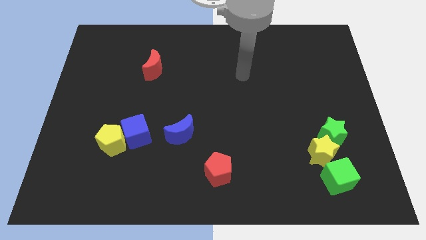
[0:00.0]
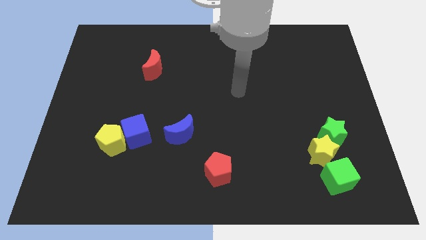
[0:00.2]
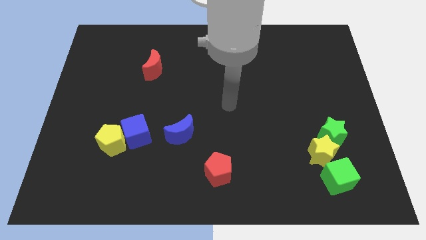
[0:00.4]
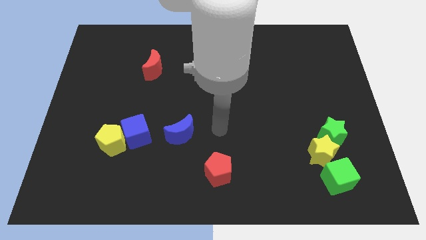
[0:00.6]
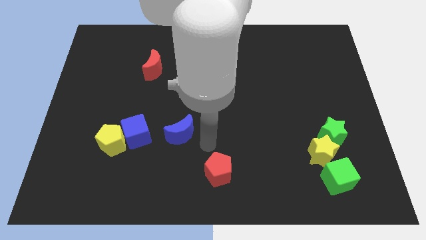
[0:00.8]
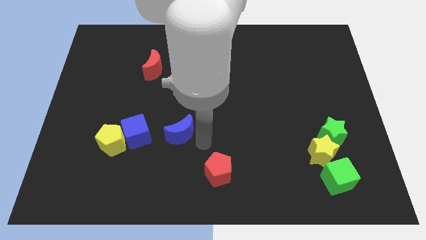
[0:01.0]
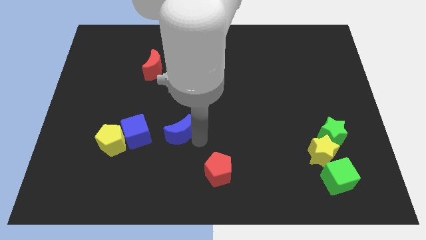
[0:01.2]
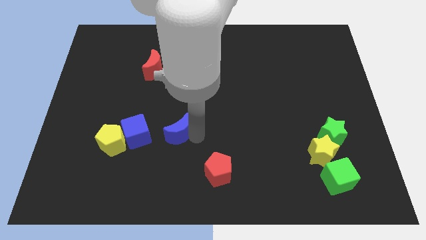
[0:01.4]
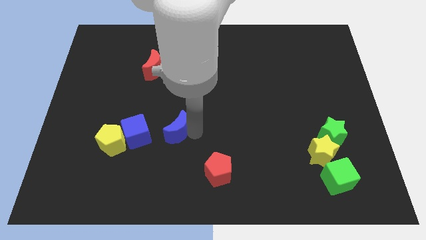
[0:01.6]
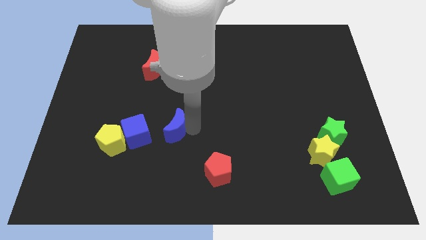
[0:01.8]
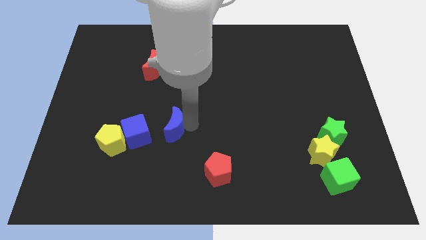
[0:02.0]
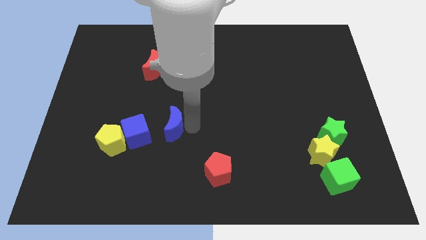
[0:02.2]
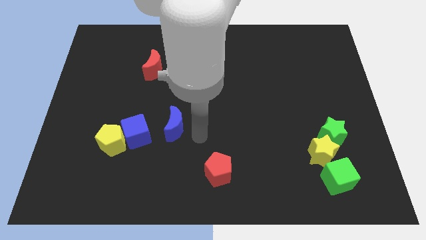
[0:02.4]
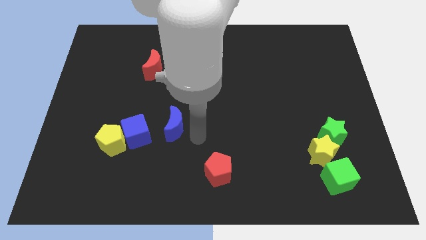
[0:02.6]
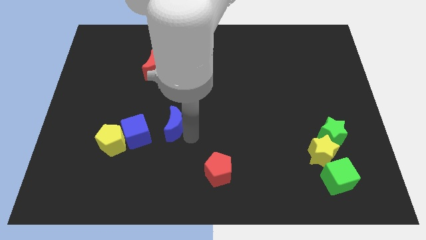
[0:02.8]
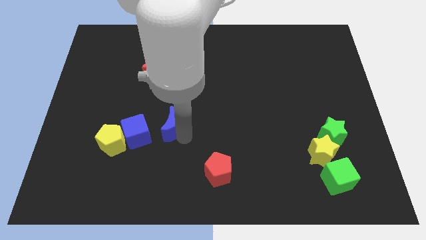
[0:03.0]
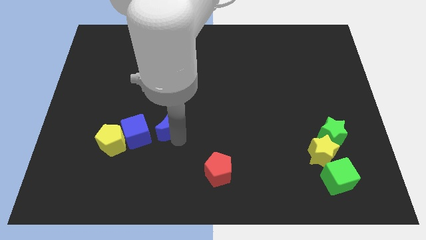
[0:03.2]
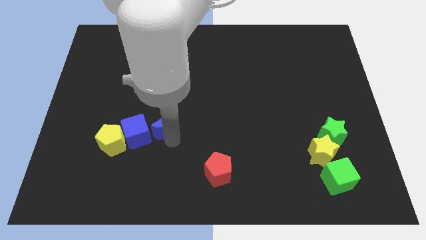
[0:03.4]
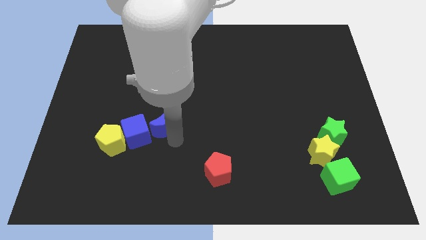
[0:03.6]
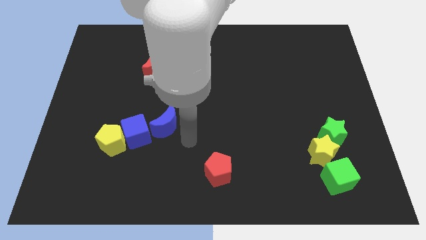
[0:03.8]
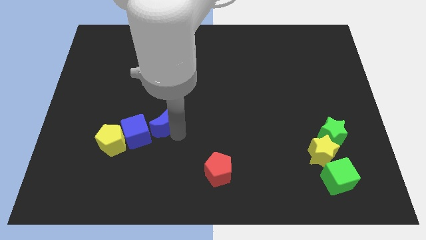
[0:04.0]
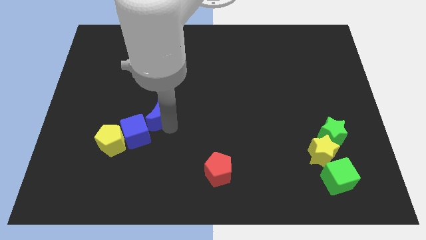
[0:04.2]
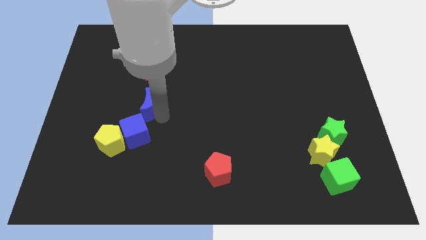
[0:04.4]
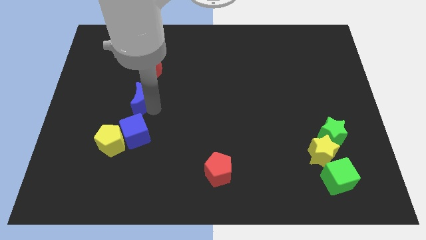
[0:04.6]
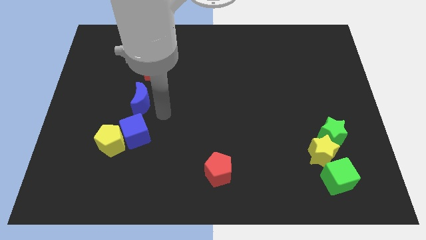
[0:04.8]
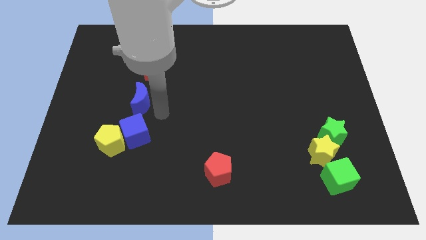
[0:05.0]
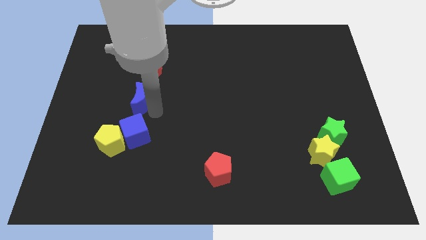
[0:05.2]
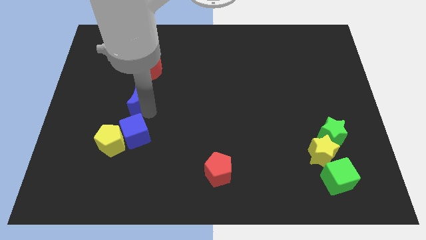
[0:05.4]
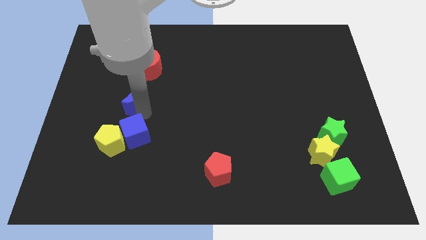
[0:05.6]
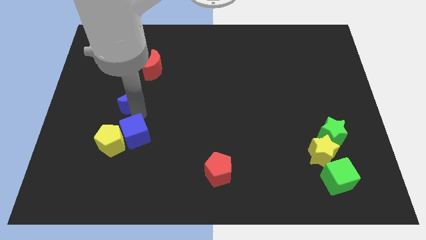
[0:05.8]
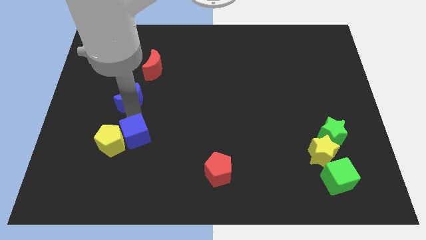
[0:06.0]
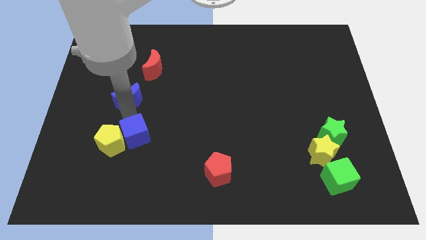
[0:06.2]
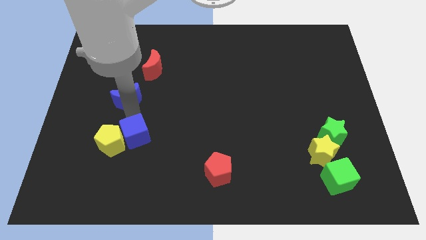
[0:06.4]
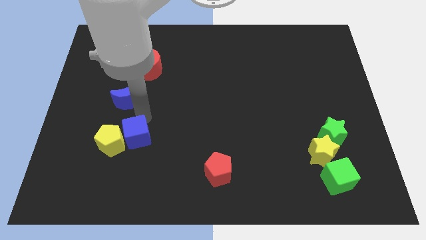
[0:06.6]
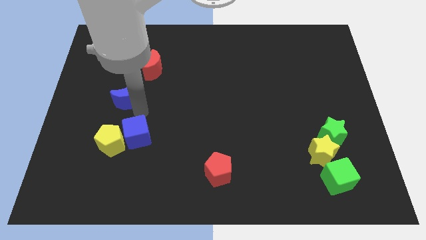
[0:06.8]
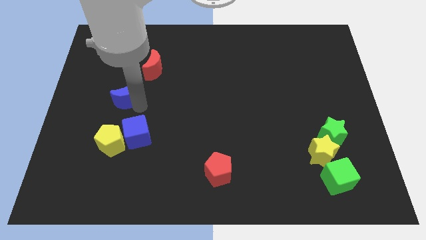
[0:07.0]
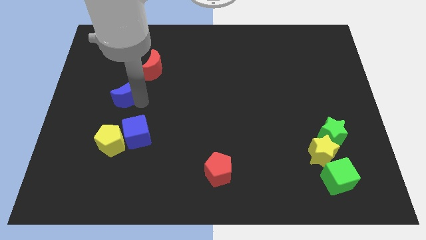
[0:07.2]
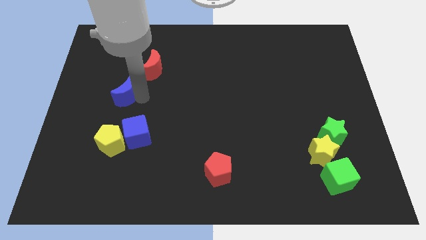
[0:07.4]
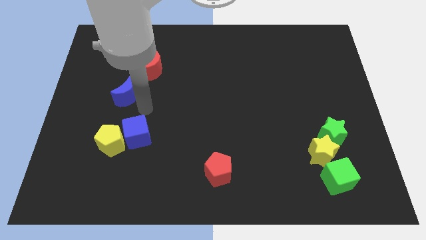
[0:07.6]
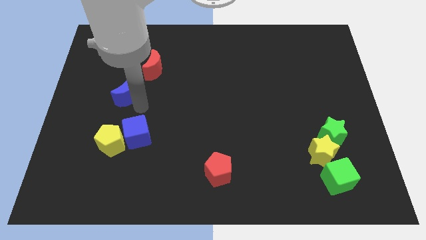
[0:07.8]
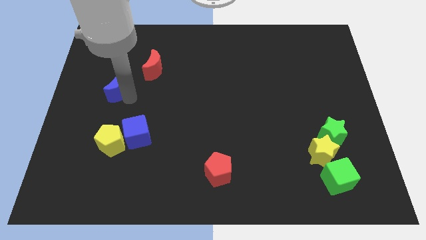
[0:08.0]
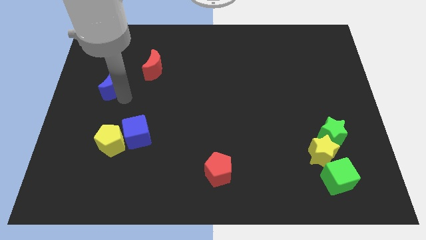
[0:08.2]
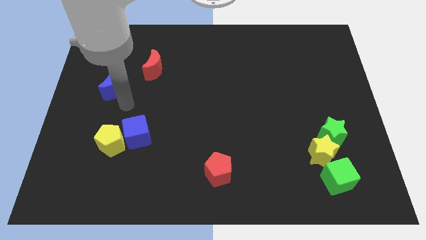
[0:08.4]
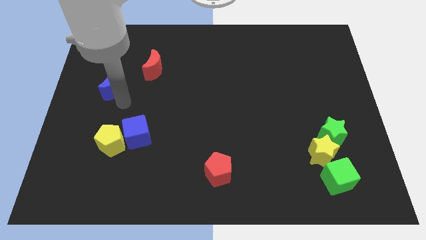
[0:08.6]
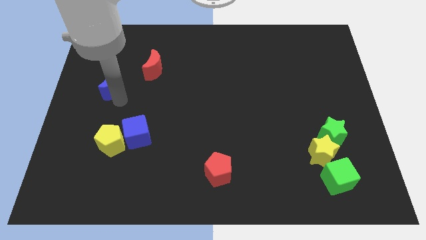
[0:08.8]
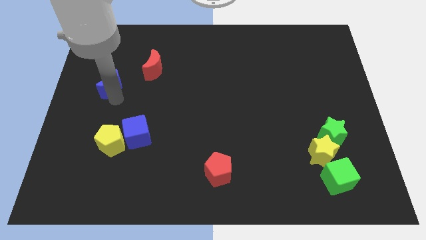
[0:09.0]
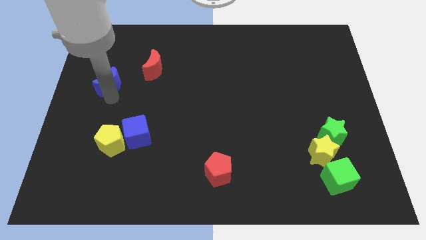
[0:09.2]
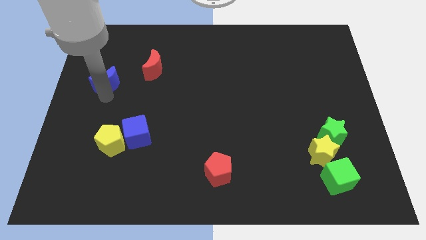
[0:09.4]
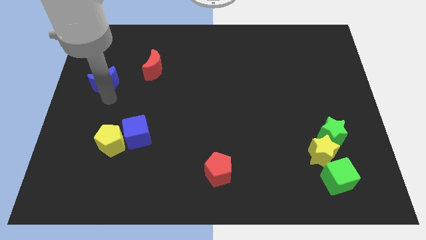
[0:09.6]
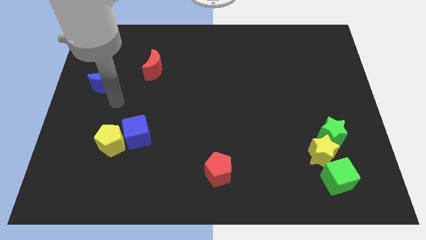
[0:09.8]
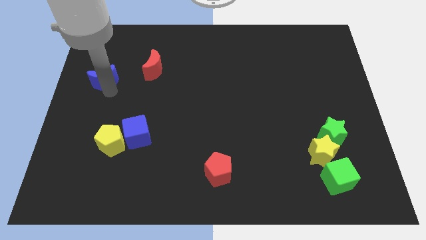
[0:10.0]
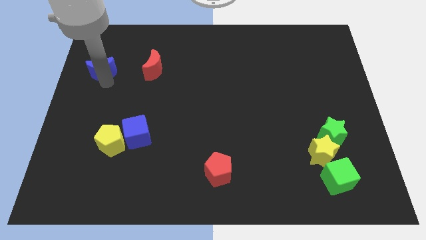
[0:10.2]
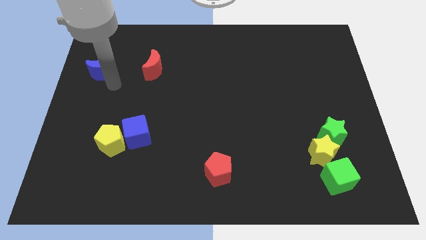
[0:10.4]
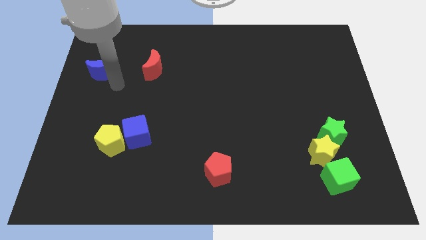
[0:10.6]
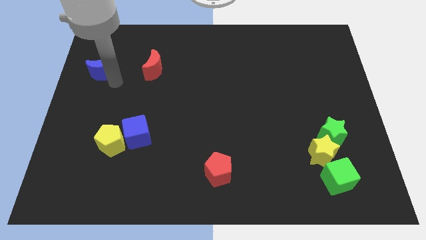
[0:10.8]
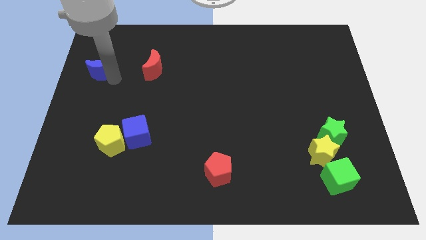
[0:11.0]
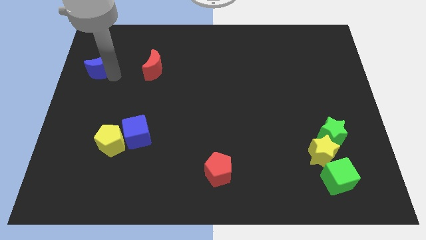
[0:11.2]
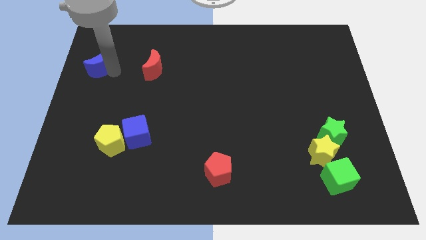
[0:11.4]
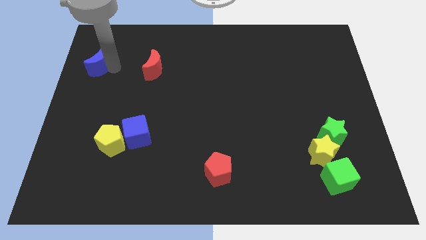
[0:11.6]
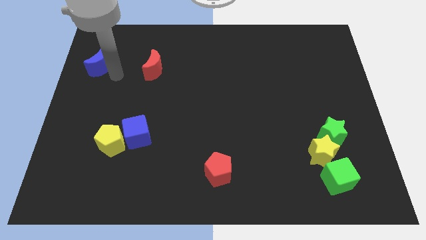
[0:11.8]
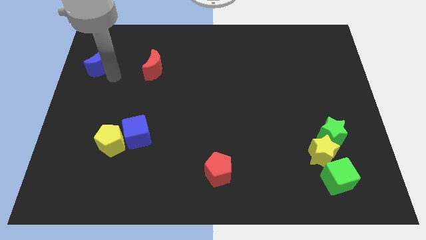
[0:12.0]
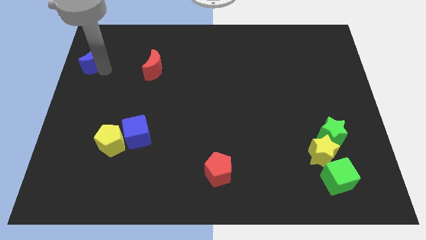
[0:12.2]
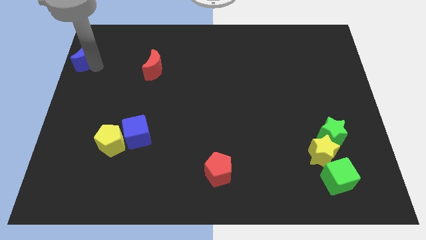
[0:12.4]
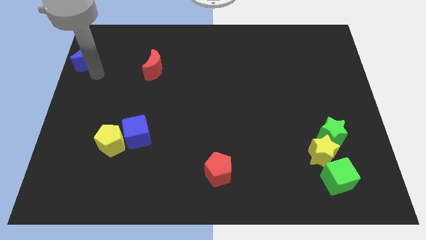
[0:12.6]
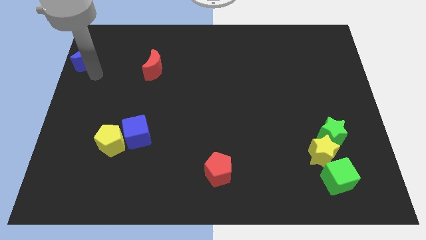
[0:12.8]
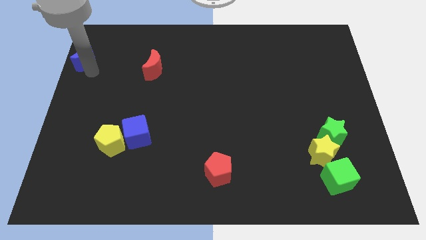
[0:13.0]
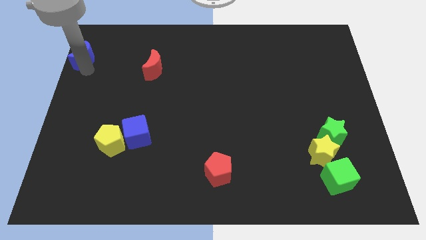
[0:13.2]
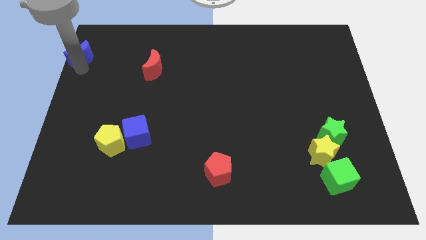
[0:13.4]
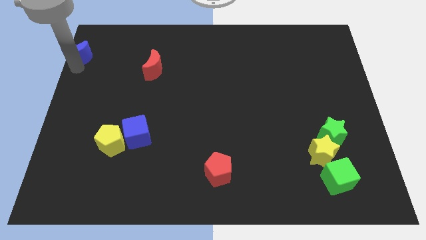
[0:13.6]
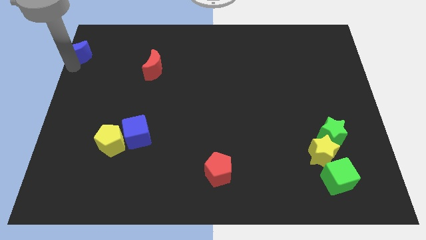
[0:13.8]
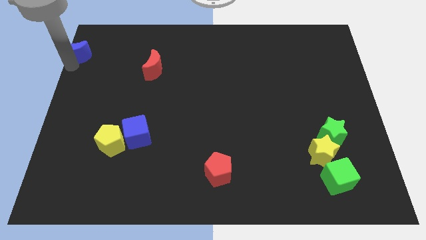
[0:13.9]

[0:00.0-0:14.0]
move the blue moon to the top left
